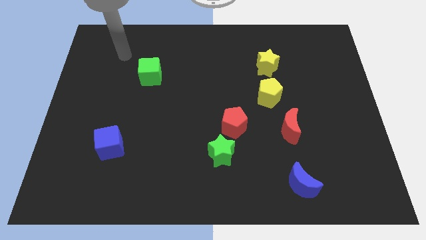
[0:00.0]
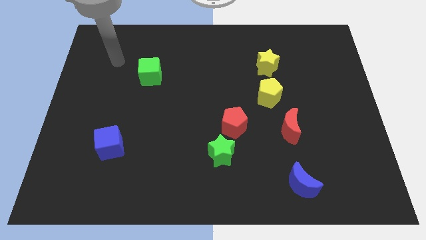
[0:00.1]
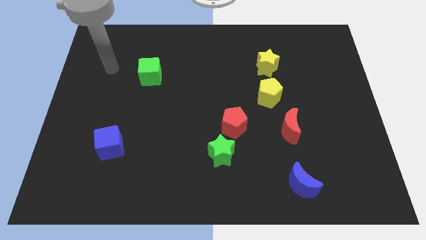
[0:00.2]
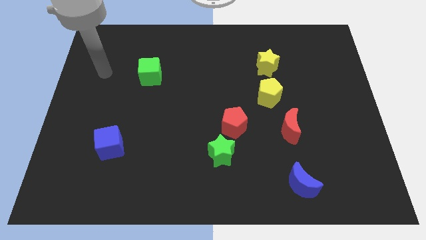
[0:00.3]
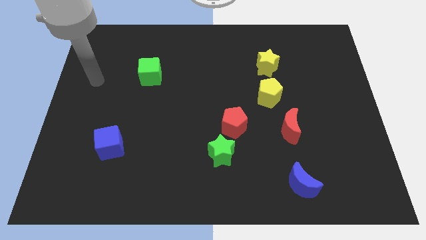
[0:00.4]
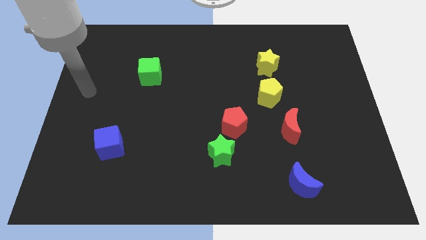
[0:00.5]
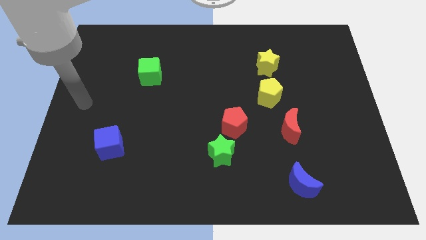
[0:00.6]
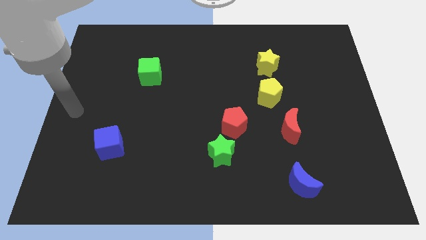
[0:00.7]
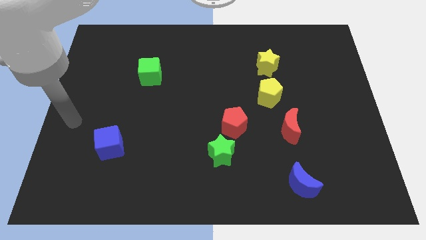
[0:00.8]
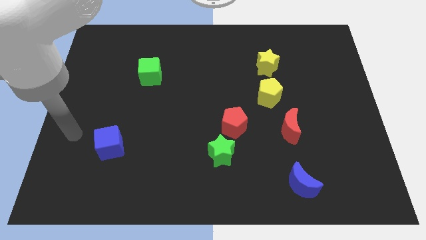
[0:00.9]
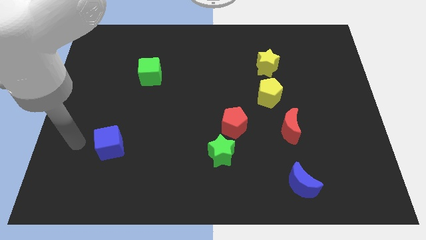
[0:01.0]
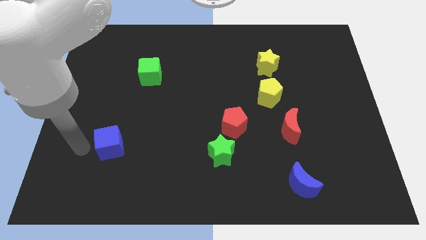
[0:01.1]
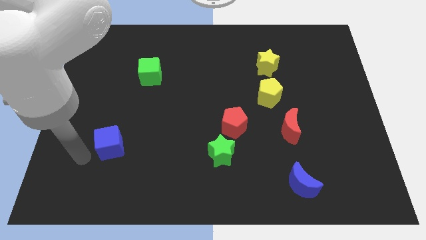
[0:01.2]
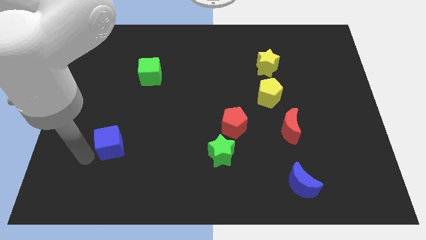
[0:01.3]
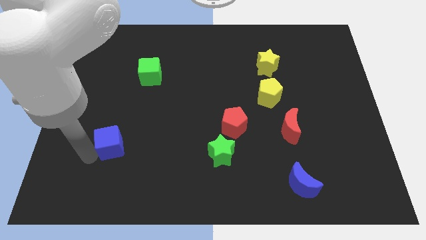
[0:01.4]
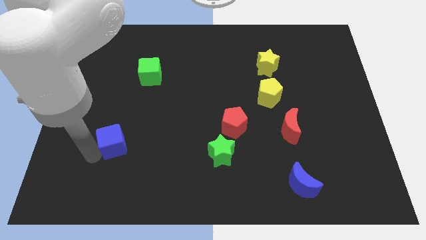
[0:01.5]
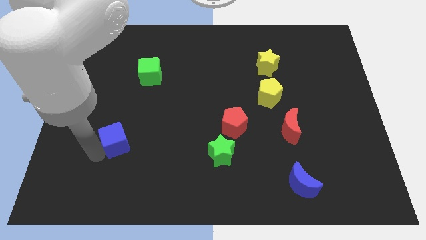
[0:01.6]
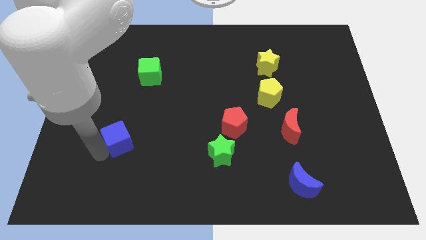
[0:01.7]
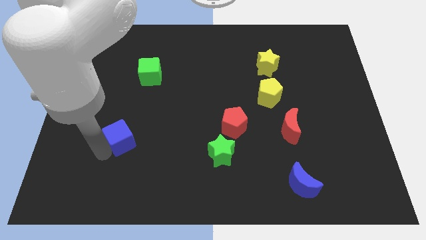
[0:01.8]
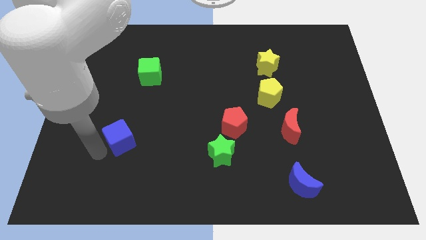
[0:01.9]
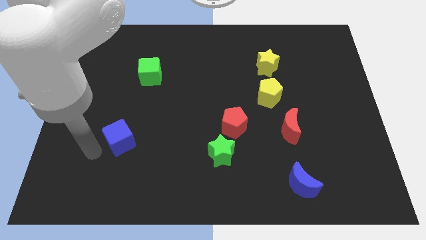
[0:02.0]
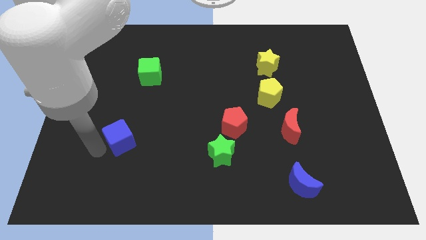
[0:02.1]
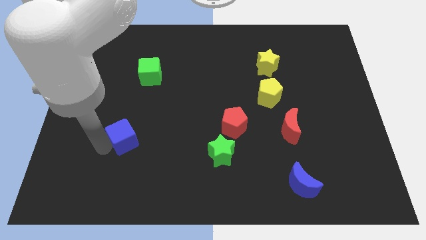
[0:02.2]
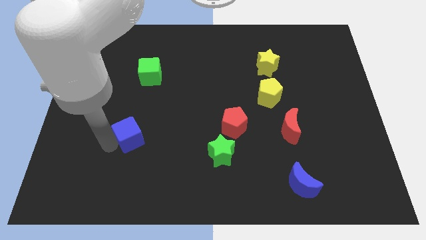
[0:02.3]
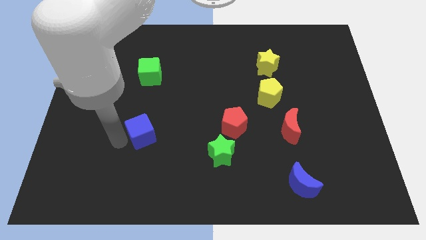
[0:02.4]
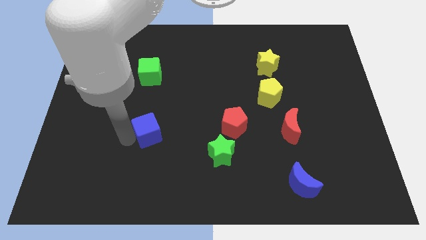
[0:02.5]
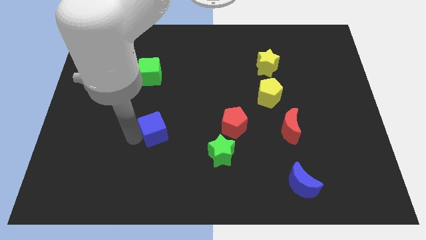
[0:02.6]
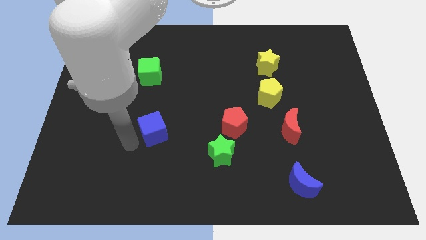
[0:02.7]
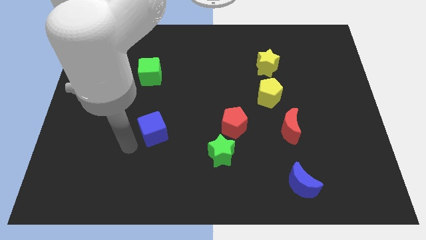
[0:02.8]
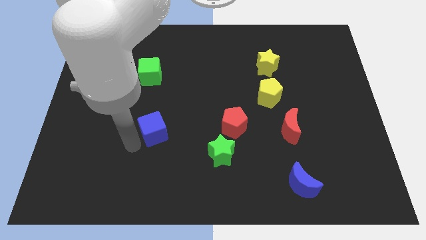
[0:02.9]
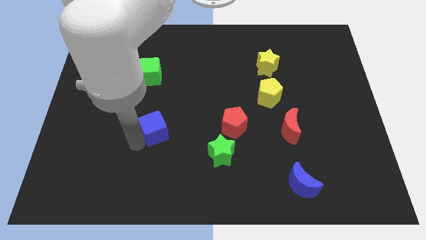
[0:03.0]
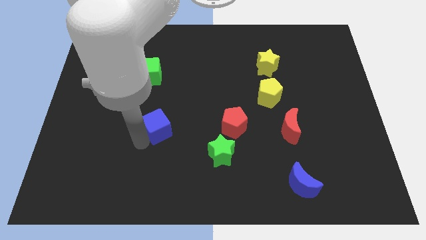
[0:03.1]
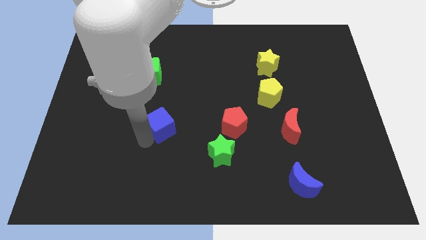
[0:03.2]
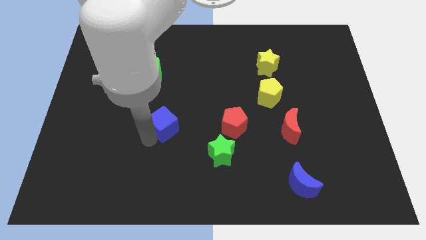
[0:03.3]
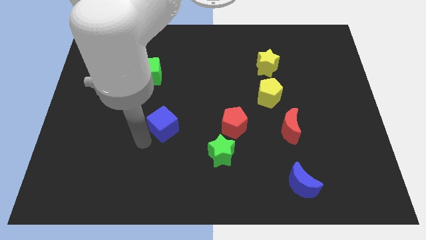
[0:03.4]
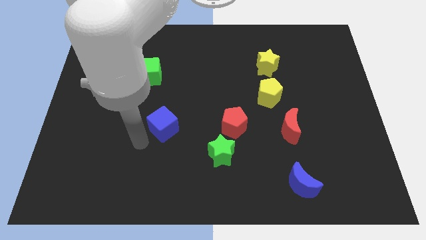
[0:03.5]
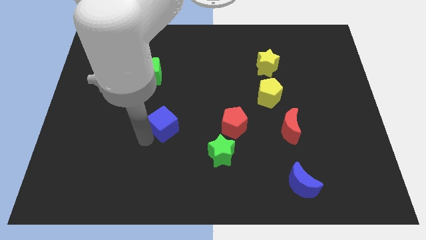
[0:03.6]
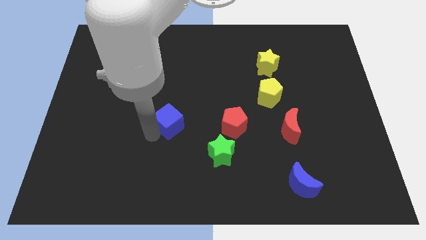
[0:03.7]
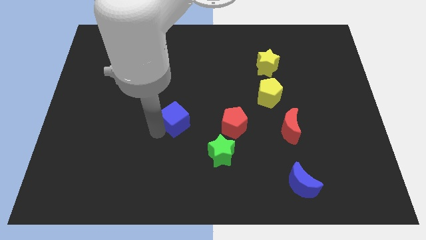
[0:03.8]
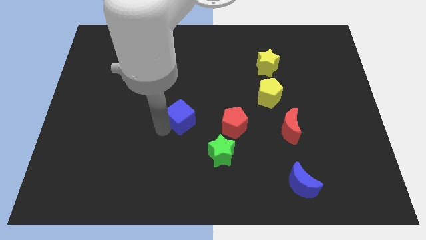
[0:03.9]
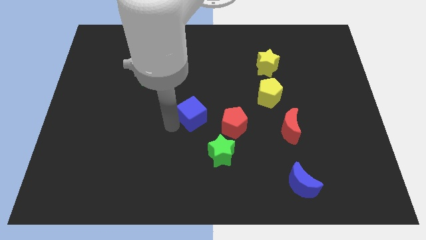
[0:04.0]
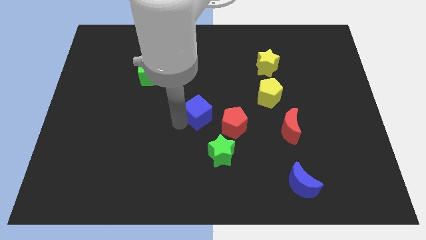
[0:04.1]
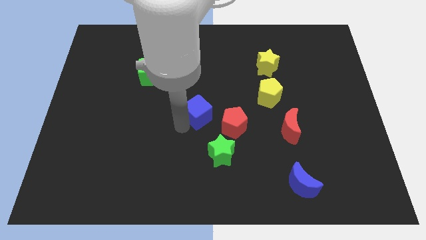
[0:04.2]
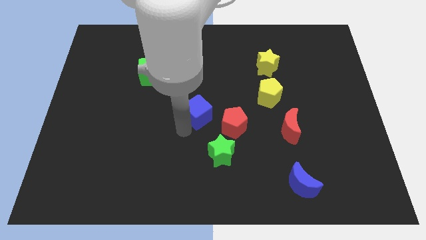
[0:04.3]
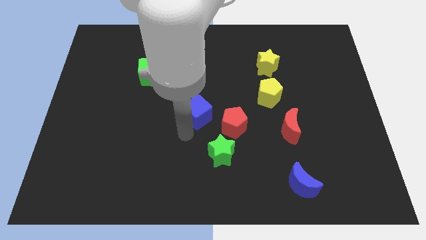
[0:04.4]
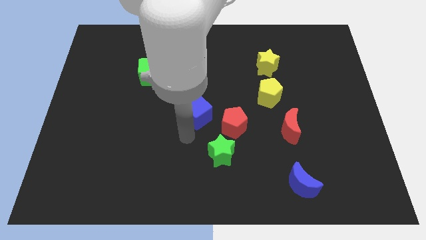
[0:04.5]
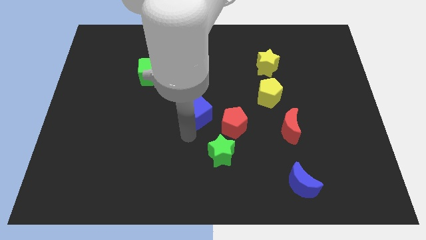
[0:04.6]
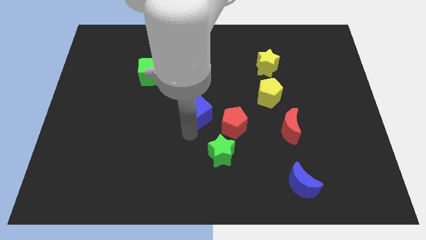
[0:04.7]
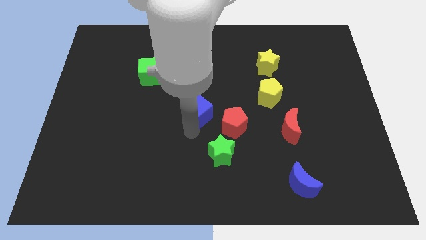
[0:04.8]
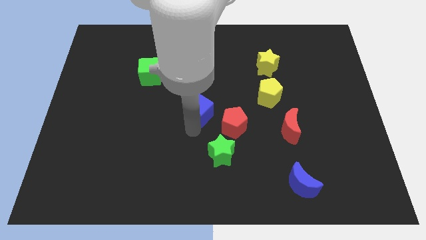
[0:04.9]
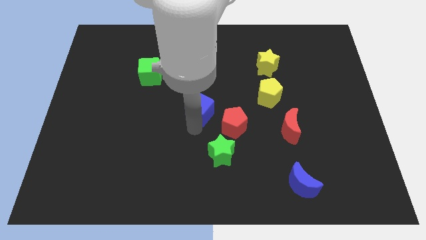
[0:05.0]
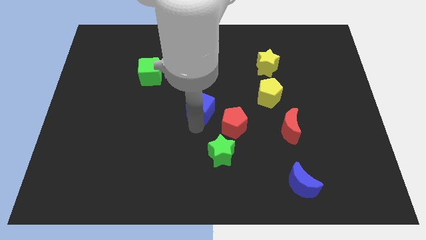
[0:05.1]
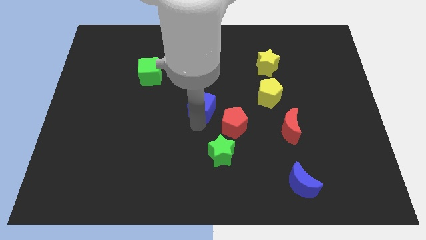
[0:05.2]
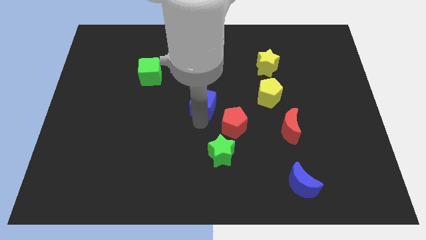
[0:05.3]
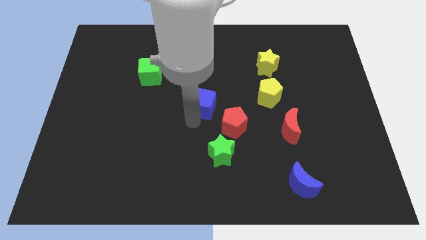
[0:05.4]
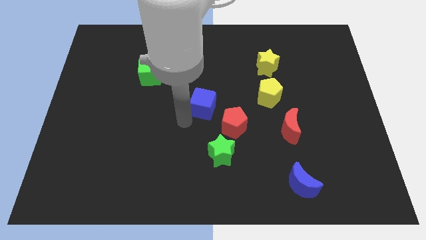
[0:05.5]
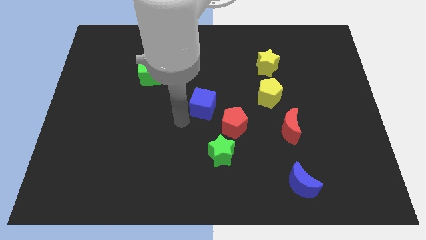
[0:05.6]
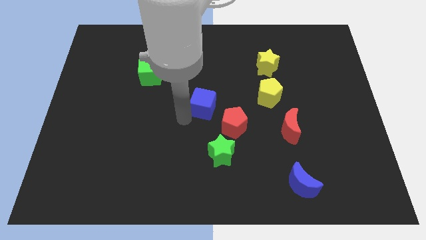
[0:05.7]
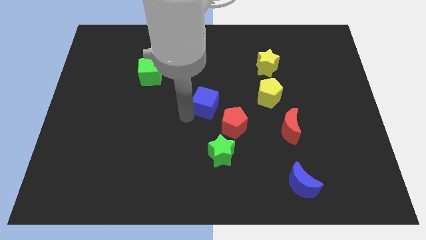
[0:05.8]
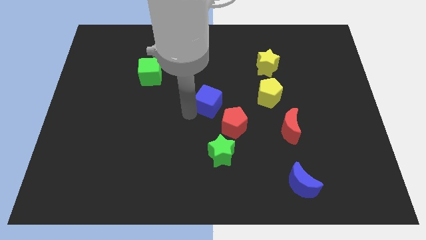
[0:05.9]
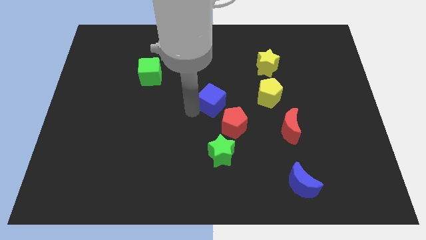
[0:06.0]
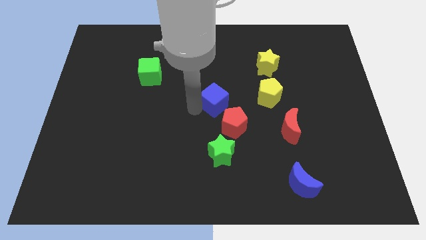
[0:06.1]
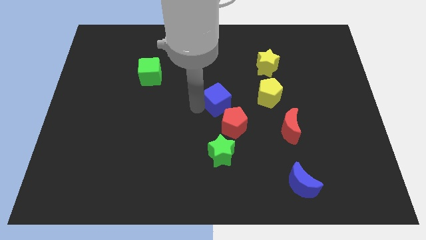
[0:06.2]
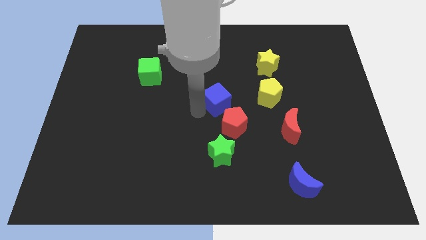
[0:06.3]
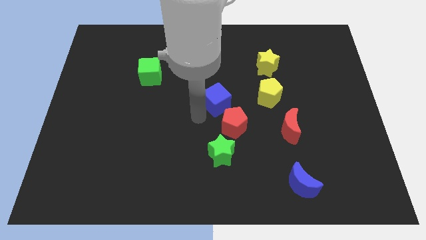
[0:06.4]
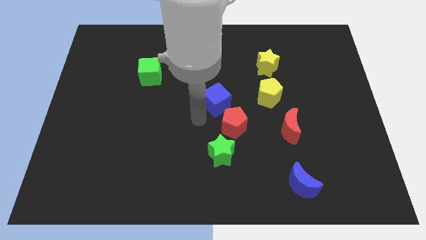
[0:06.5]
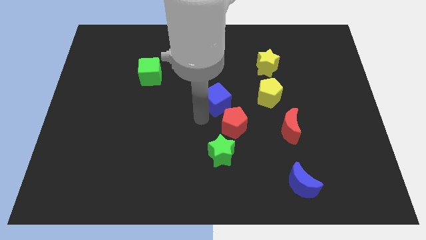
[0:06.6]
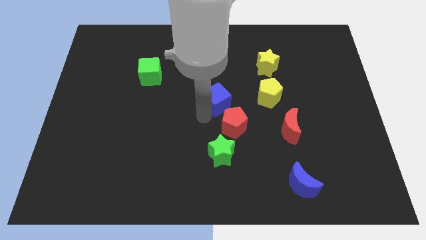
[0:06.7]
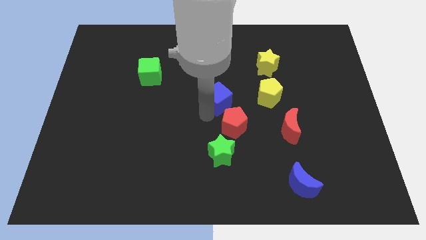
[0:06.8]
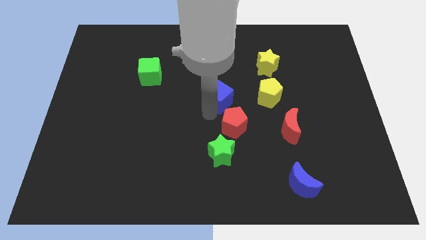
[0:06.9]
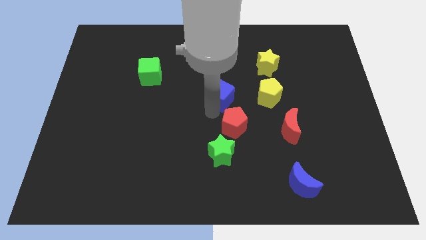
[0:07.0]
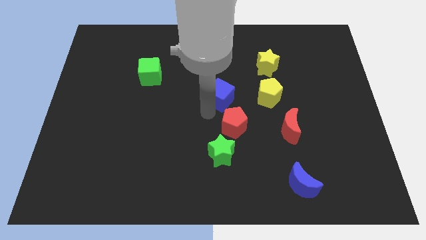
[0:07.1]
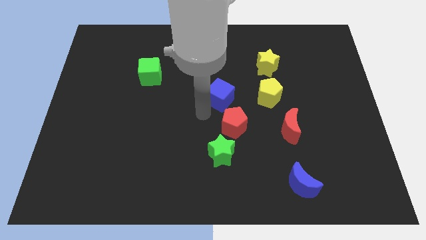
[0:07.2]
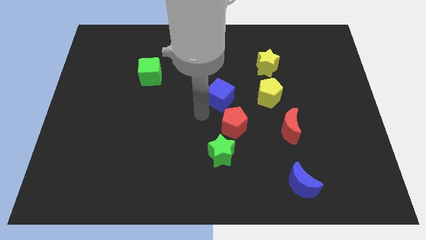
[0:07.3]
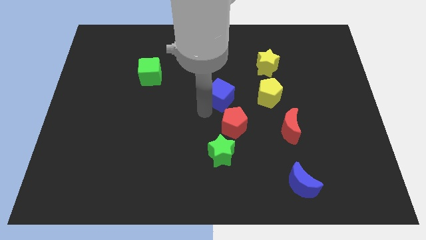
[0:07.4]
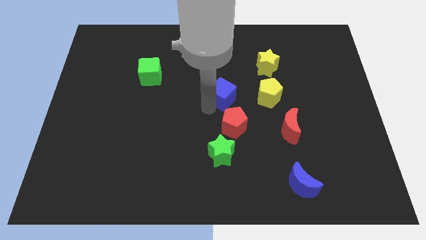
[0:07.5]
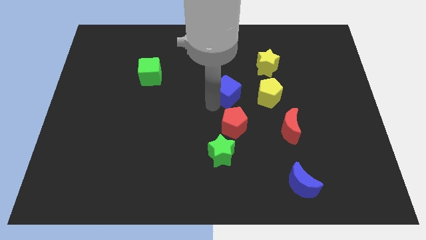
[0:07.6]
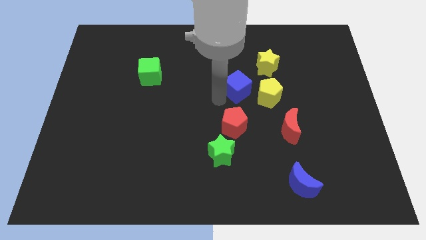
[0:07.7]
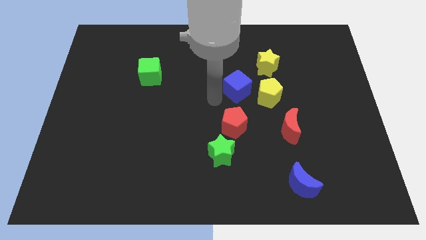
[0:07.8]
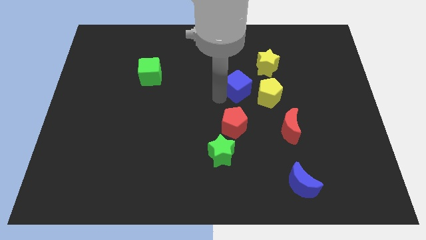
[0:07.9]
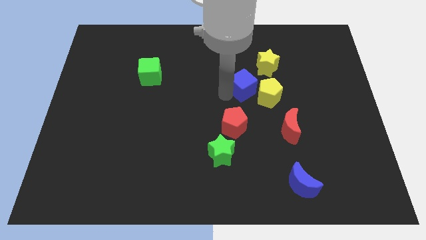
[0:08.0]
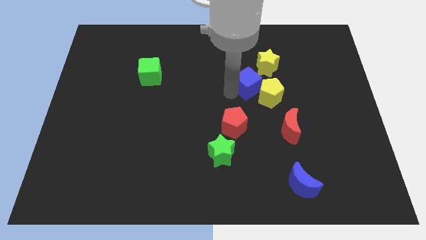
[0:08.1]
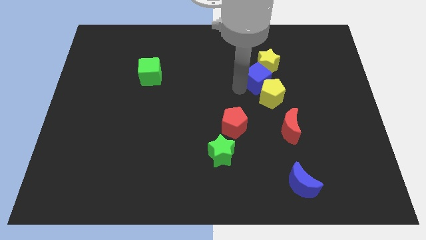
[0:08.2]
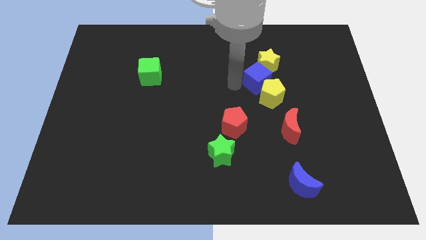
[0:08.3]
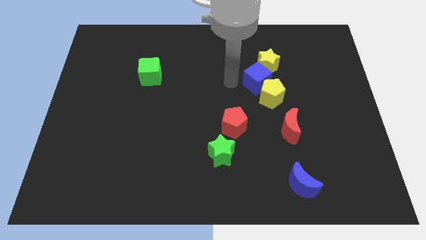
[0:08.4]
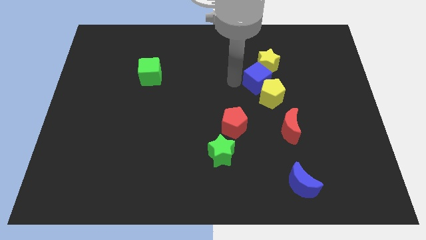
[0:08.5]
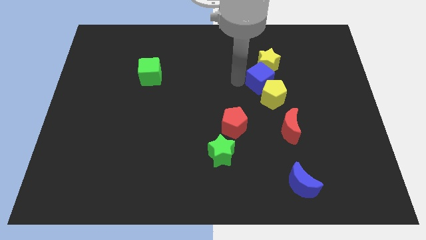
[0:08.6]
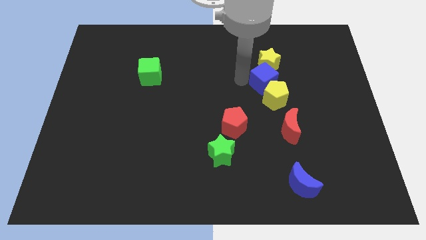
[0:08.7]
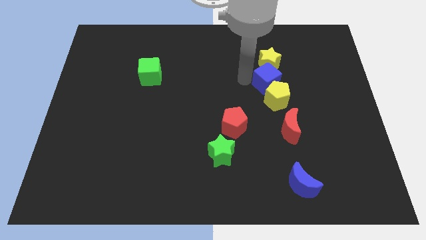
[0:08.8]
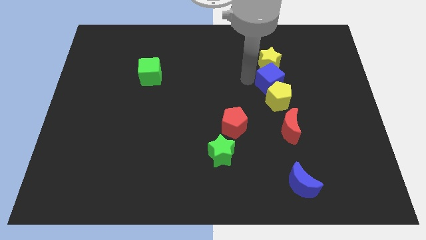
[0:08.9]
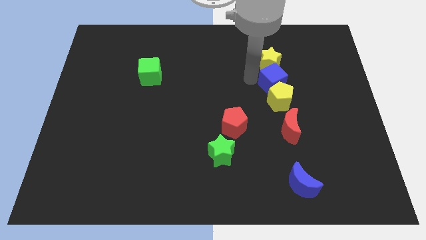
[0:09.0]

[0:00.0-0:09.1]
slide the blue cube to the top right of the yellow pentagon
